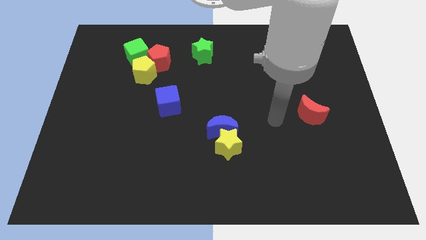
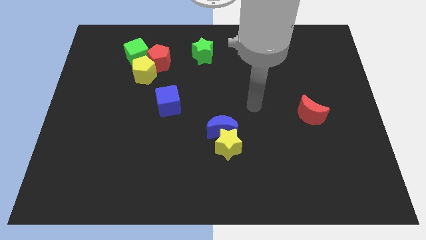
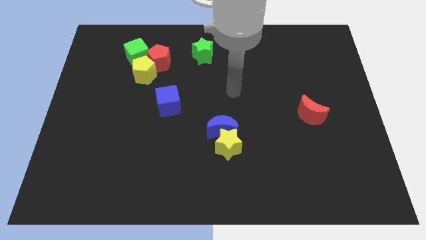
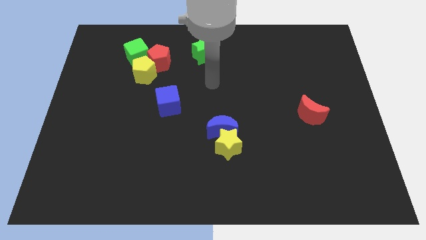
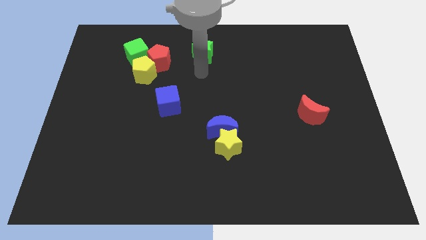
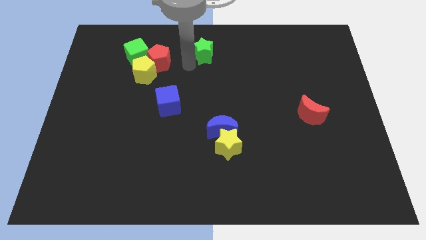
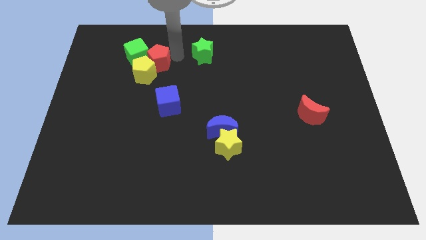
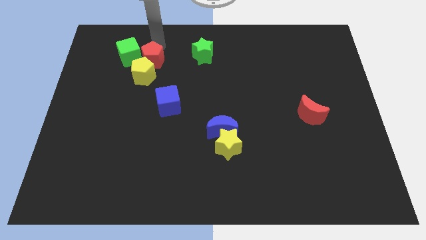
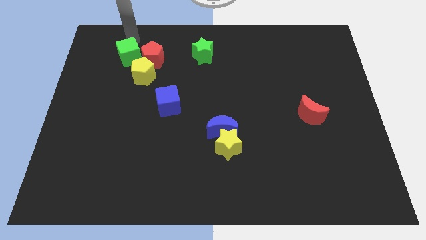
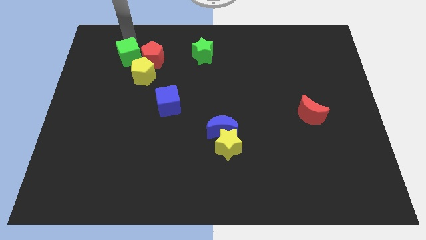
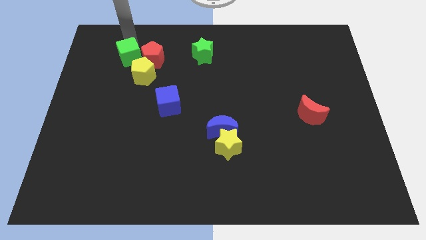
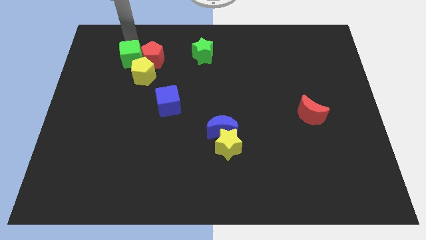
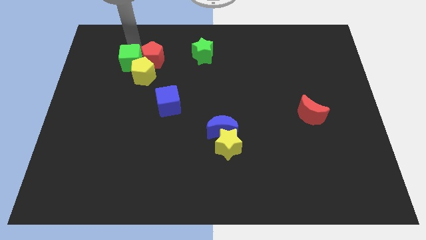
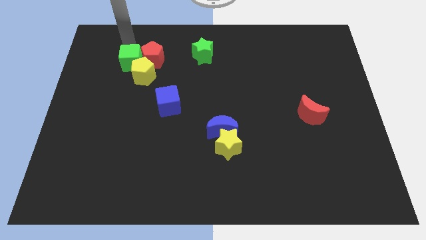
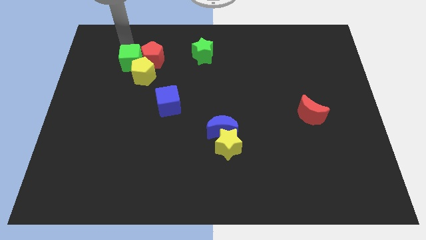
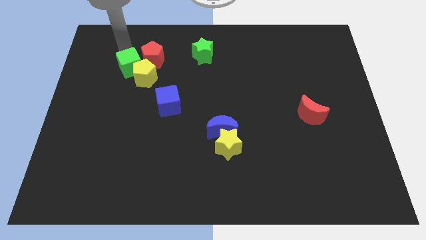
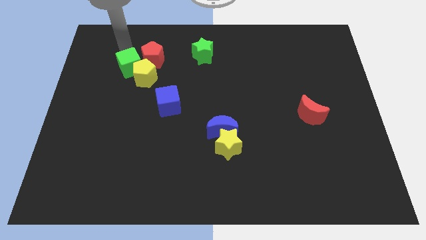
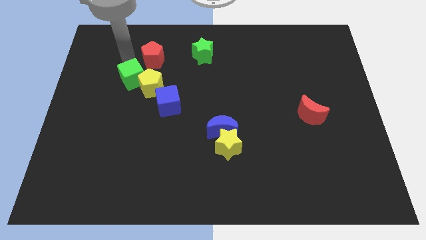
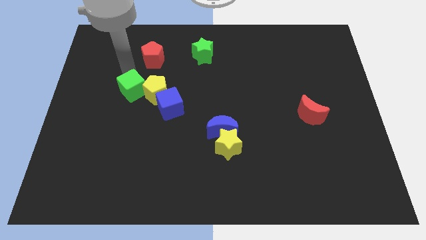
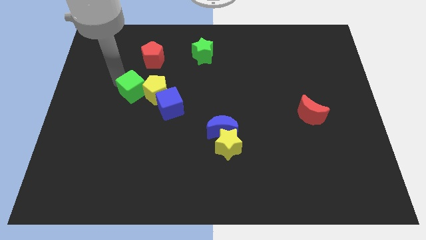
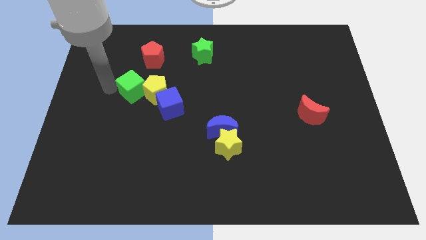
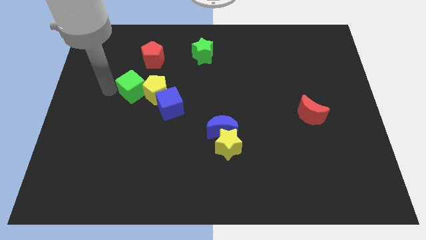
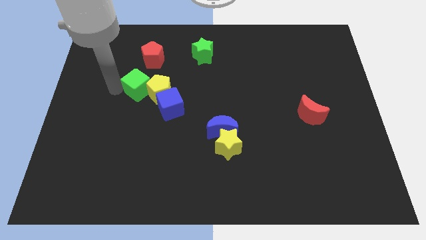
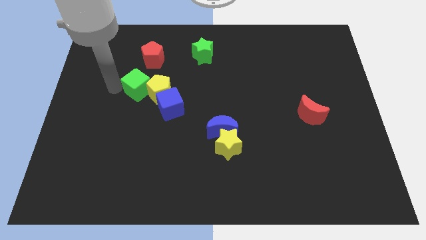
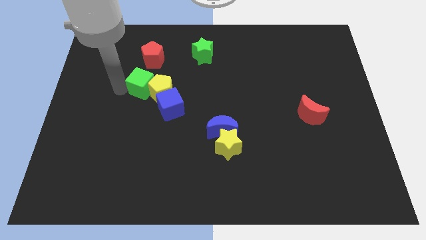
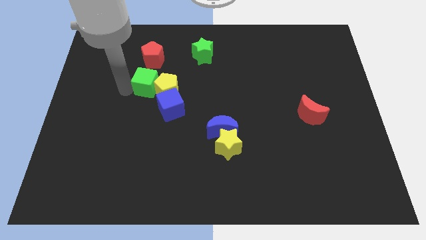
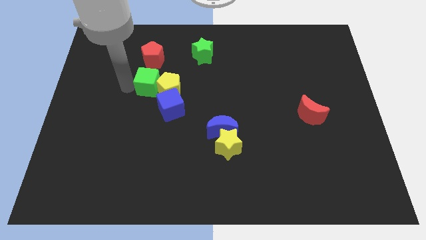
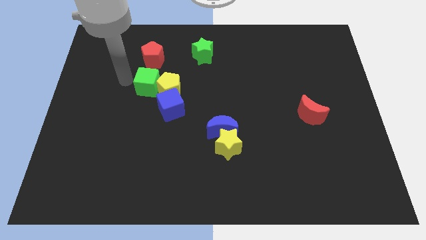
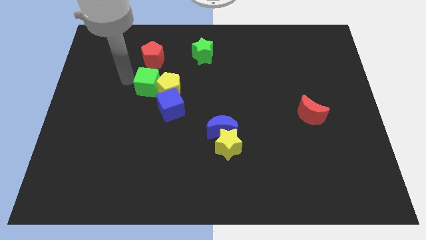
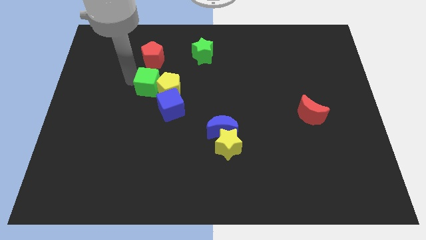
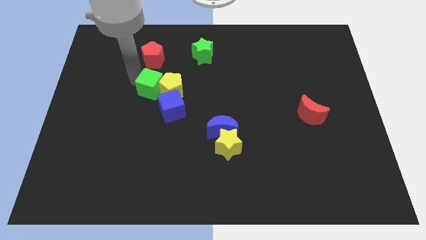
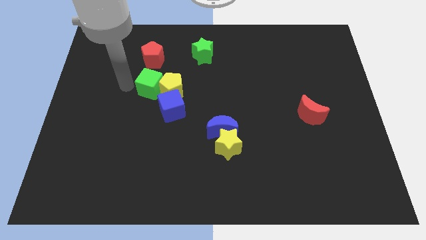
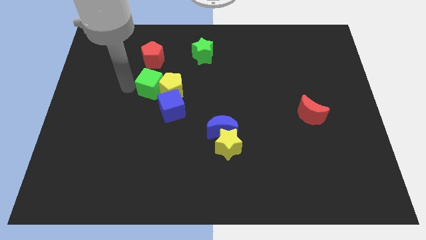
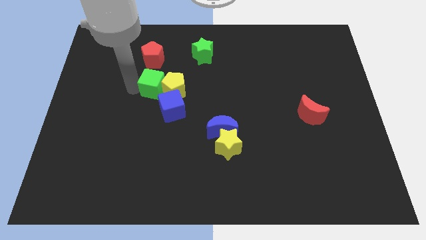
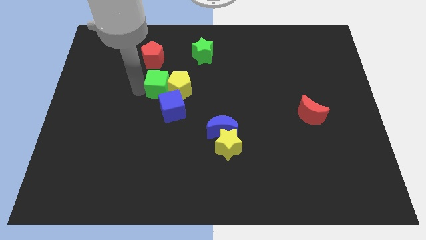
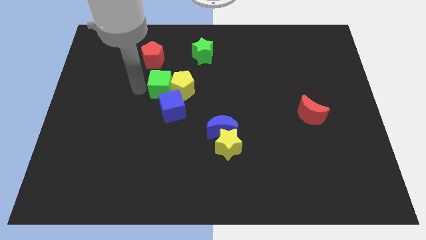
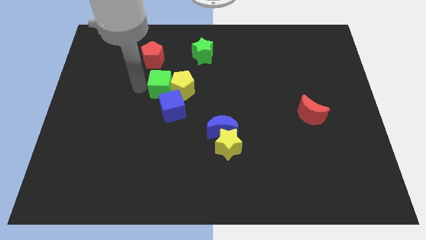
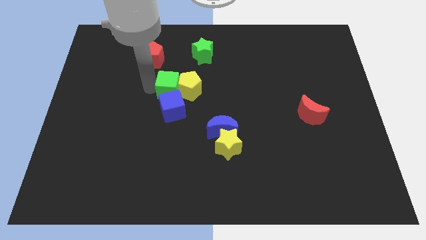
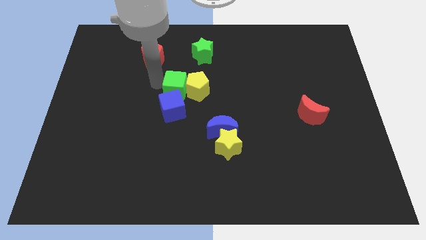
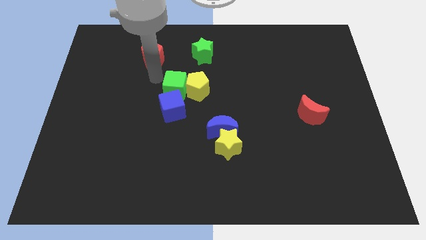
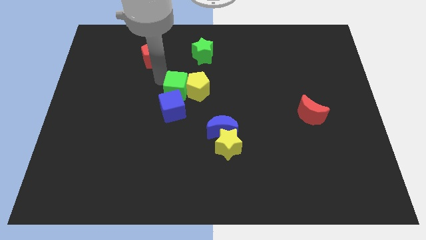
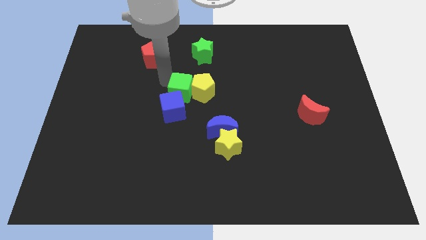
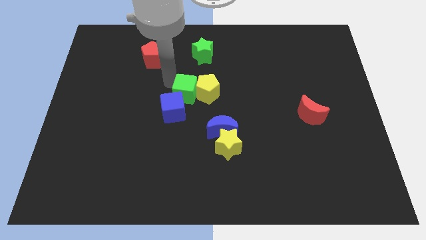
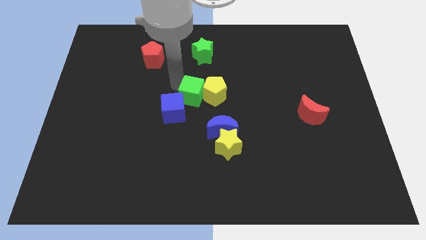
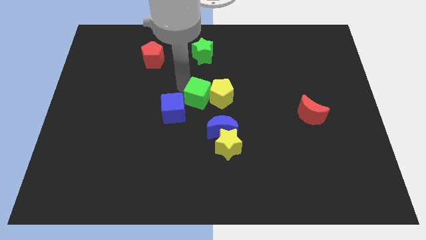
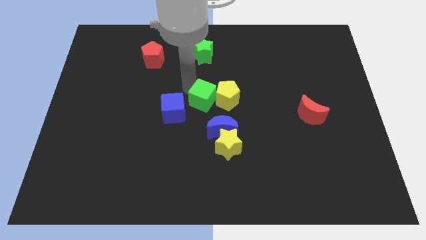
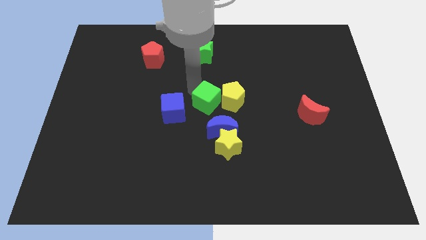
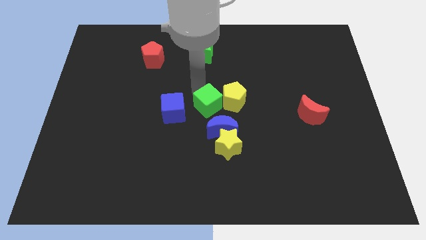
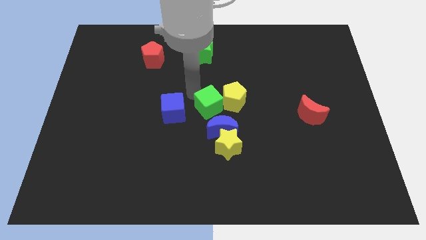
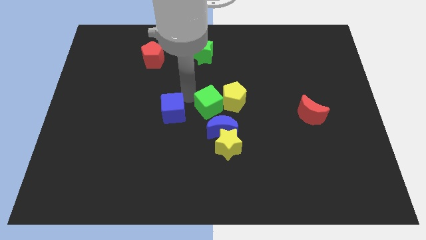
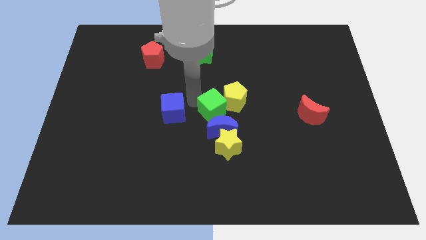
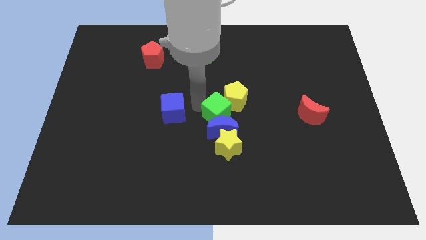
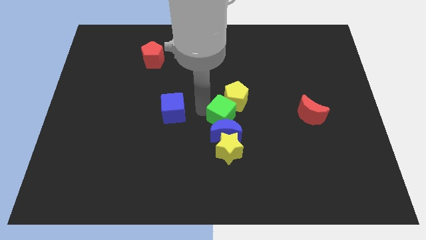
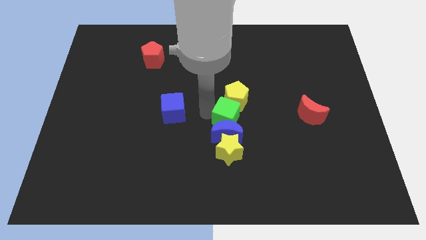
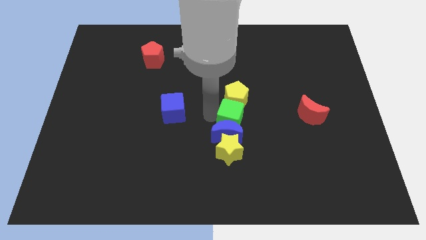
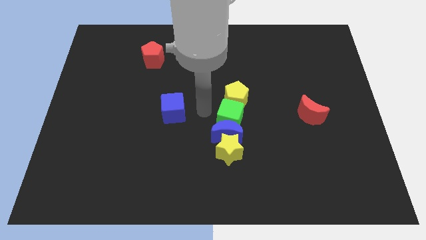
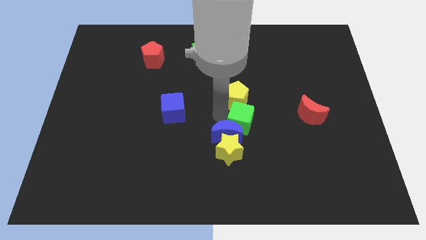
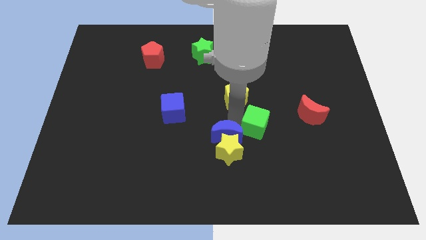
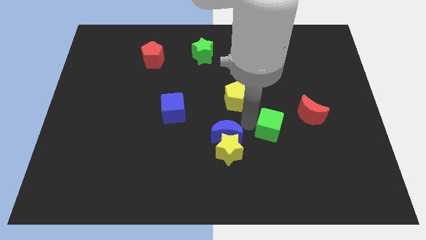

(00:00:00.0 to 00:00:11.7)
slide the green cube to the bottom left of the red moon

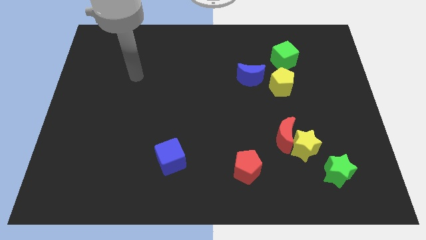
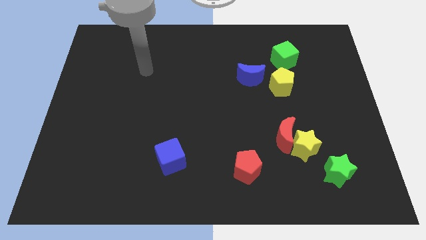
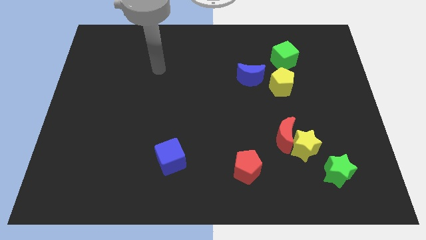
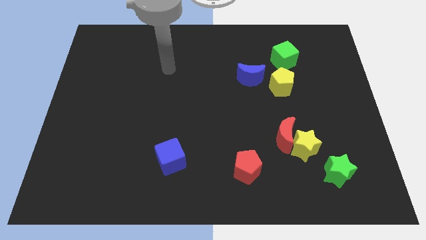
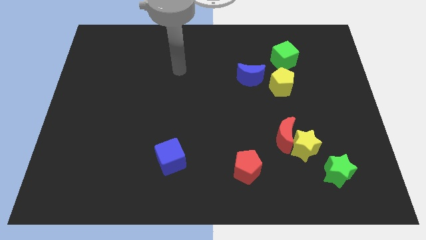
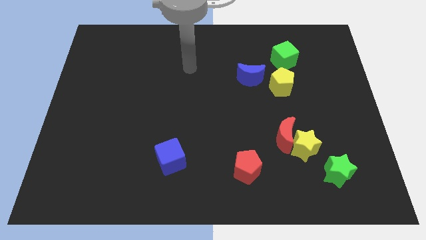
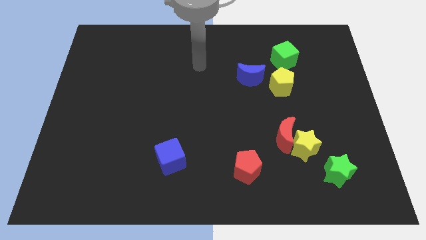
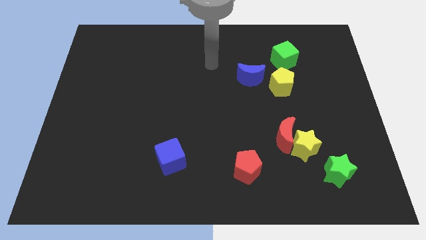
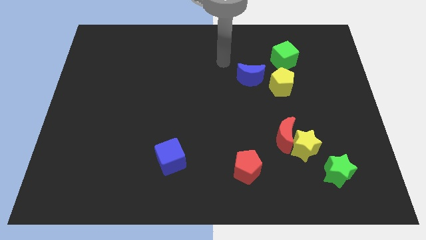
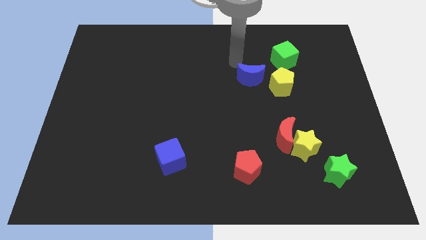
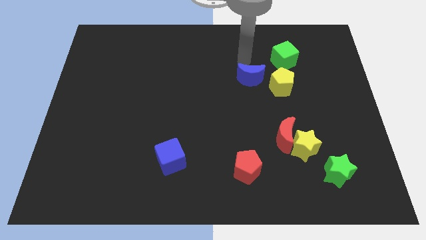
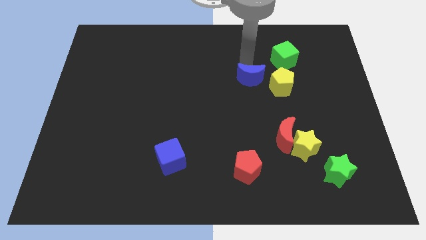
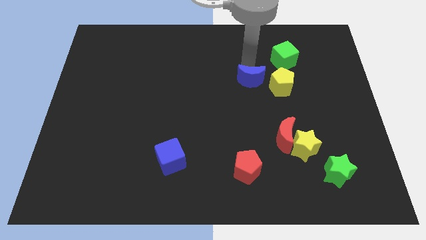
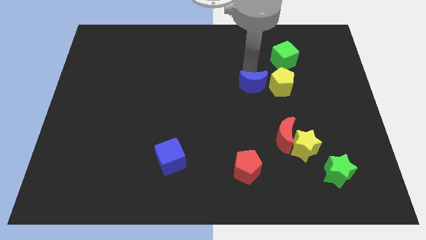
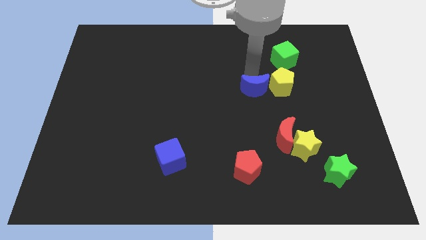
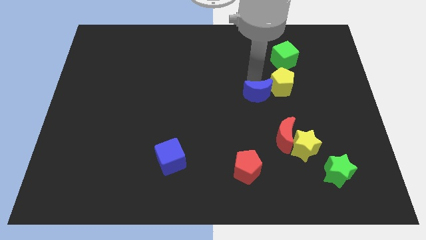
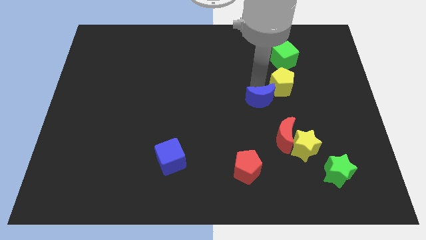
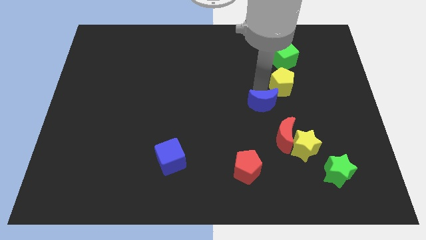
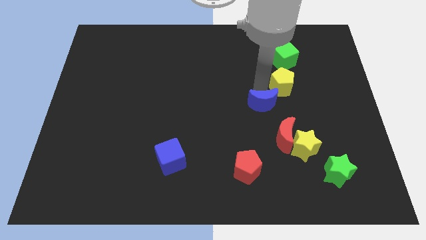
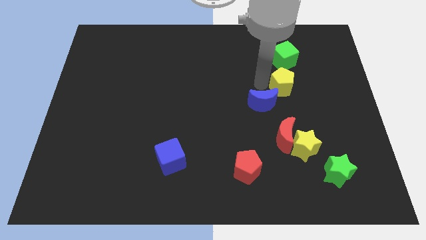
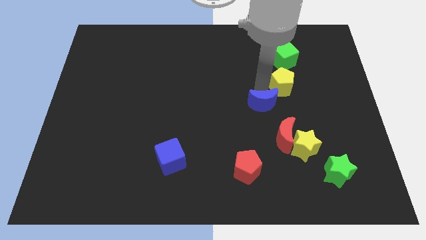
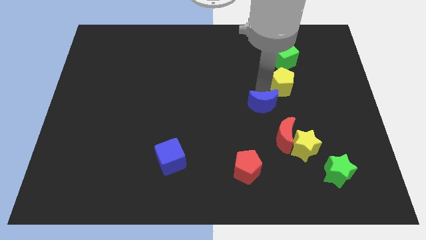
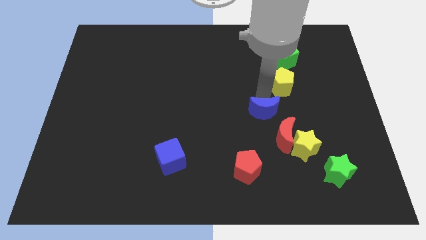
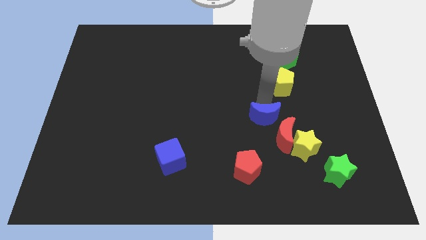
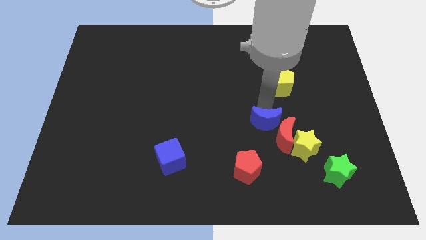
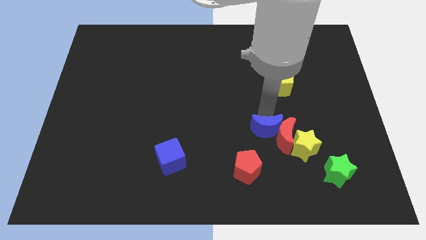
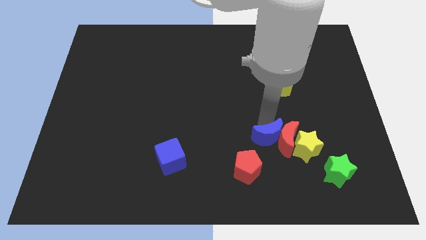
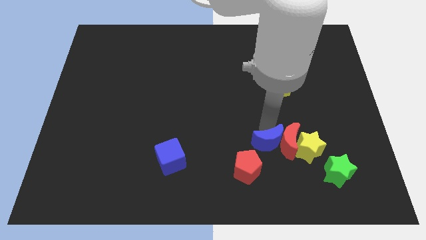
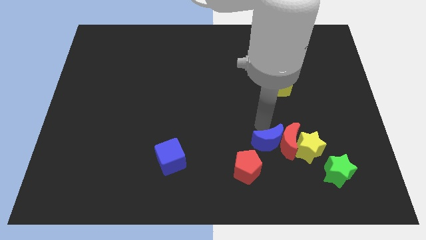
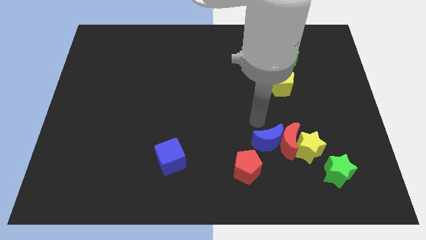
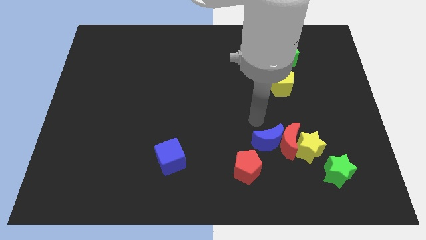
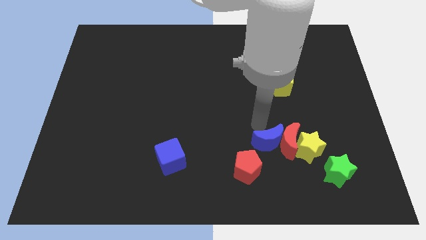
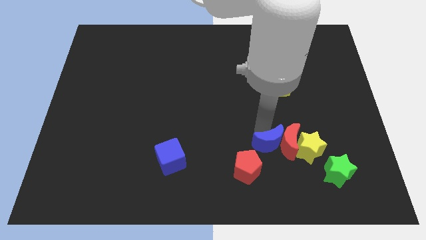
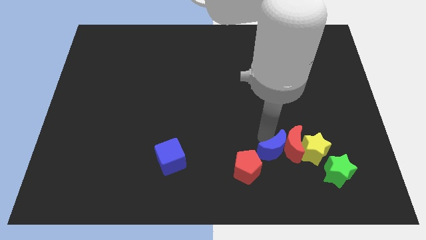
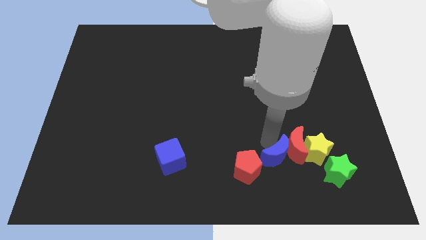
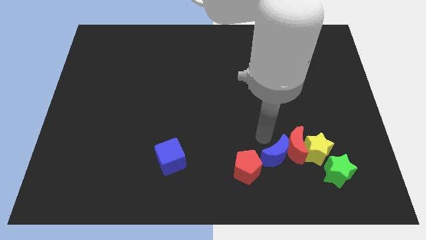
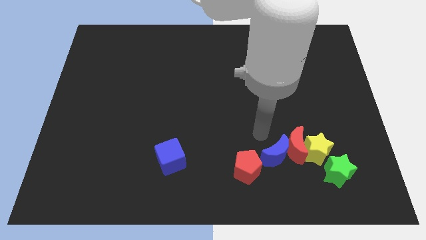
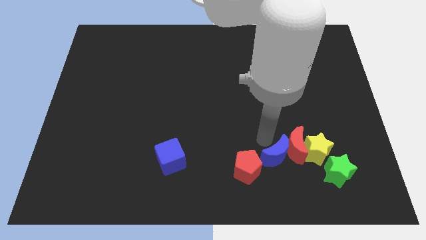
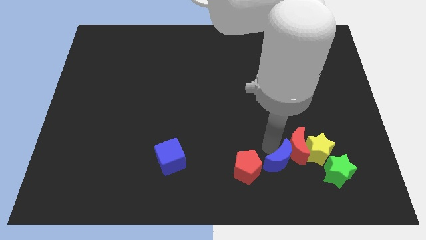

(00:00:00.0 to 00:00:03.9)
push the blue moon to the bottom side of the red moon
